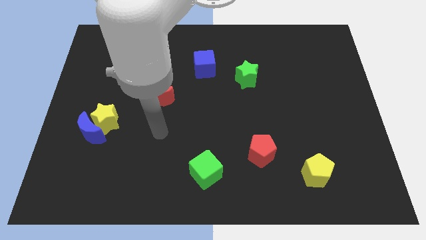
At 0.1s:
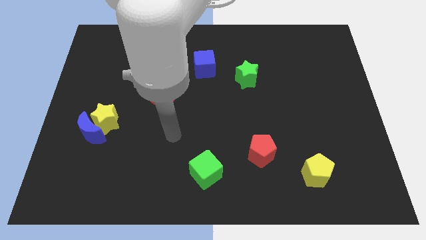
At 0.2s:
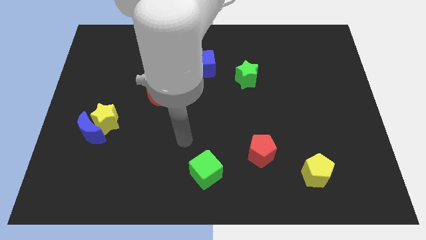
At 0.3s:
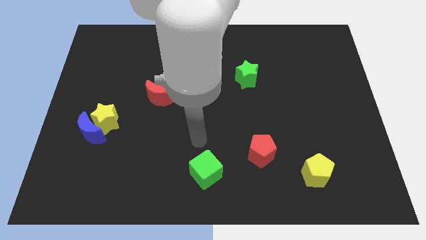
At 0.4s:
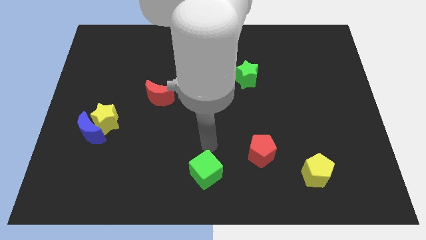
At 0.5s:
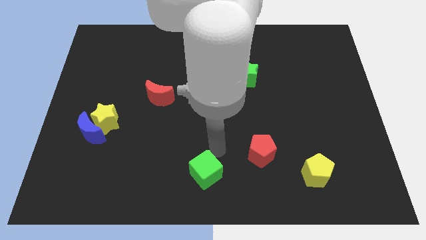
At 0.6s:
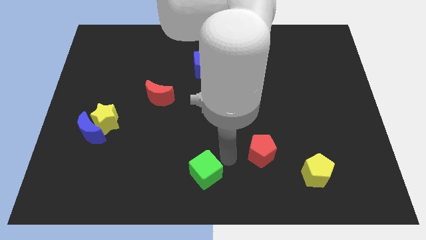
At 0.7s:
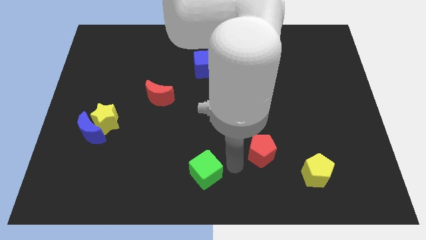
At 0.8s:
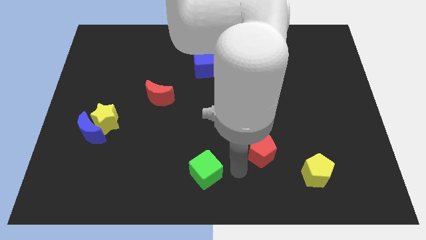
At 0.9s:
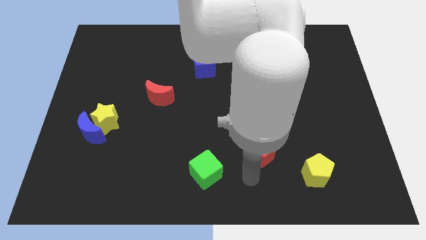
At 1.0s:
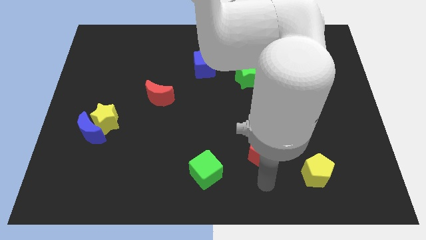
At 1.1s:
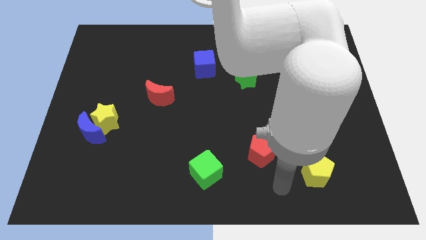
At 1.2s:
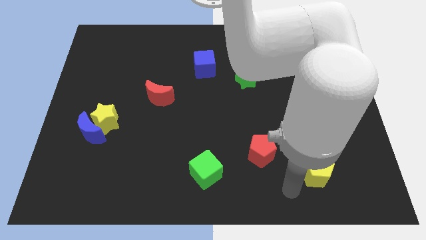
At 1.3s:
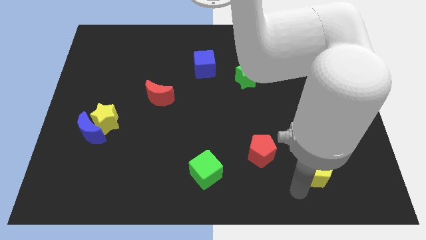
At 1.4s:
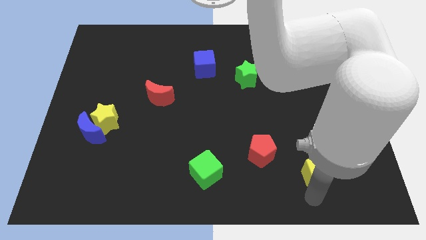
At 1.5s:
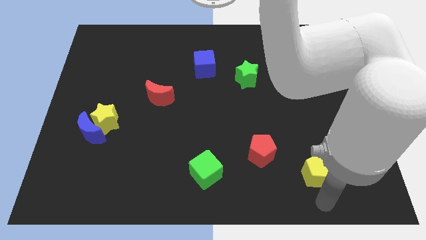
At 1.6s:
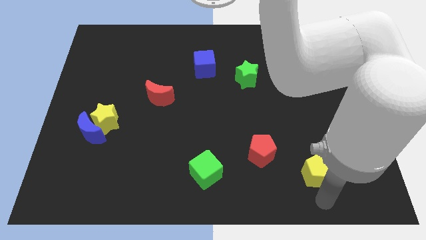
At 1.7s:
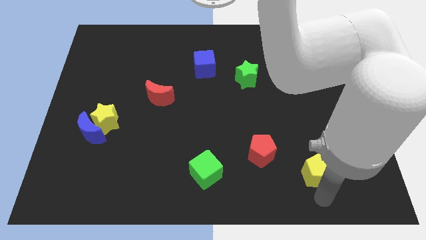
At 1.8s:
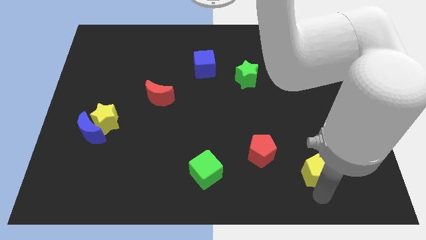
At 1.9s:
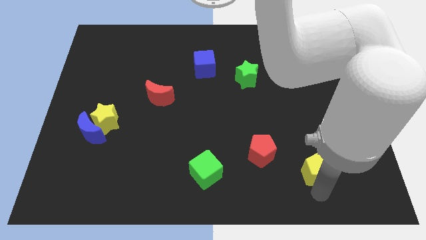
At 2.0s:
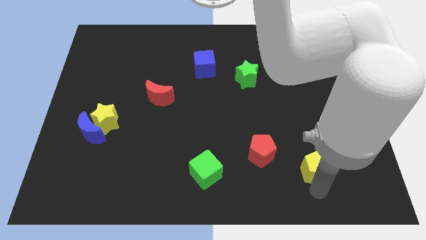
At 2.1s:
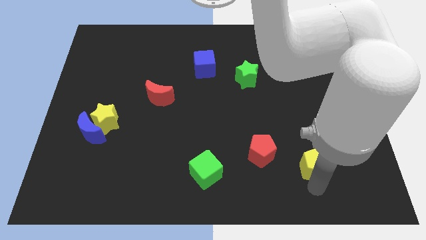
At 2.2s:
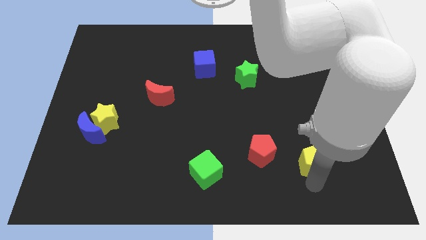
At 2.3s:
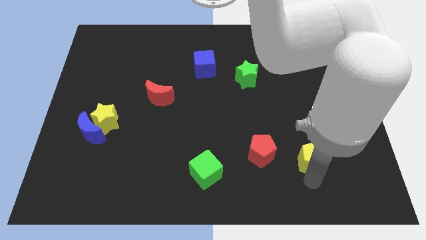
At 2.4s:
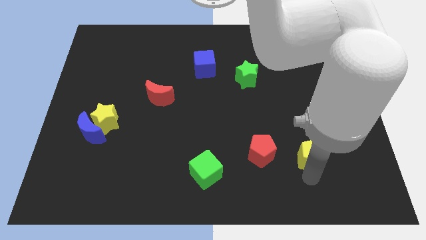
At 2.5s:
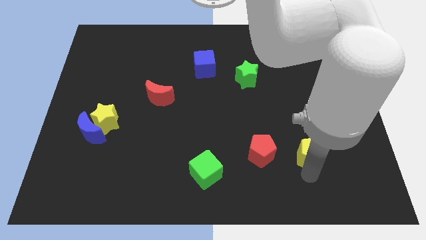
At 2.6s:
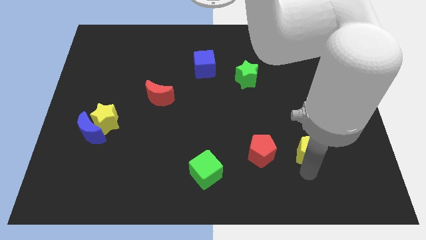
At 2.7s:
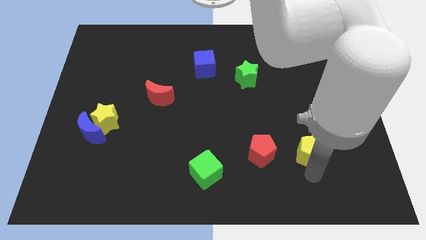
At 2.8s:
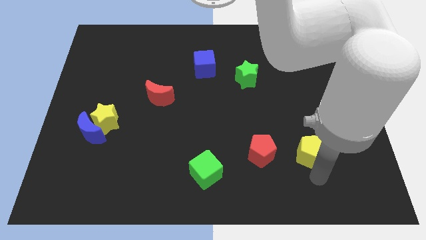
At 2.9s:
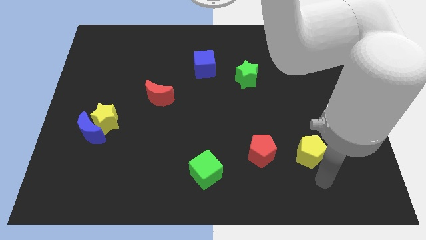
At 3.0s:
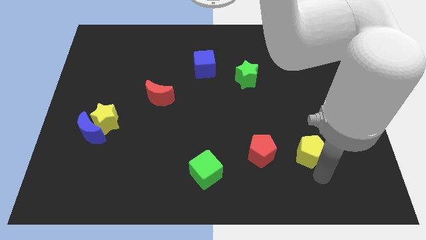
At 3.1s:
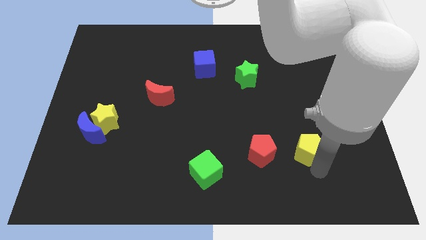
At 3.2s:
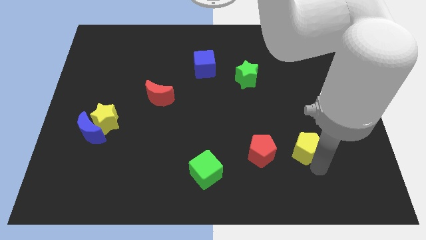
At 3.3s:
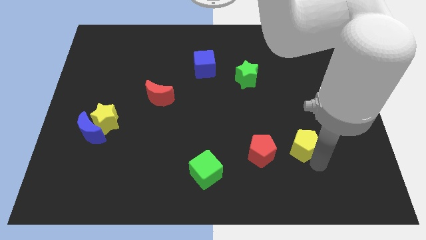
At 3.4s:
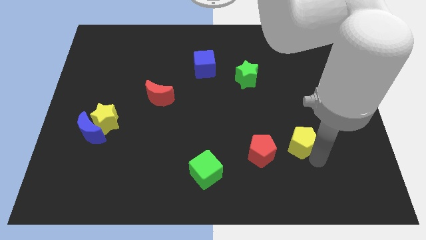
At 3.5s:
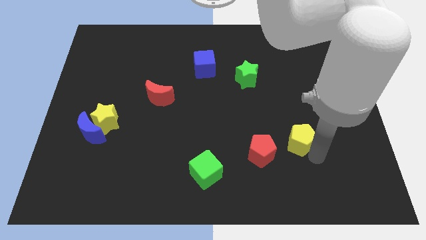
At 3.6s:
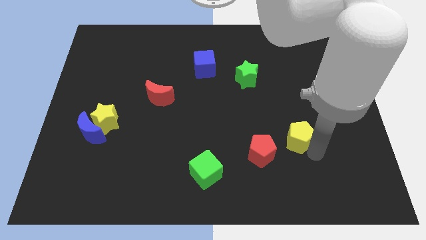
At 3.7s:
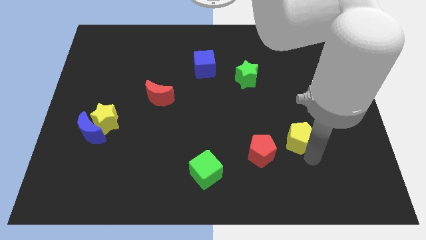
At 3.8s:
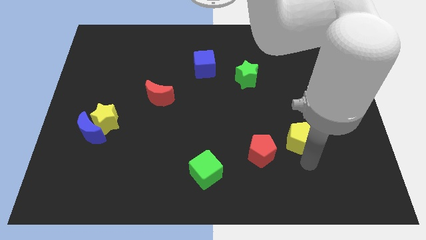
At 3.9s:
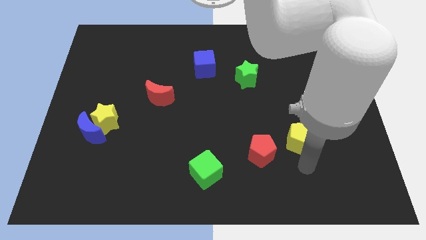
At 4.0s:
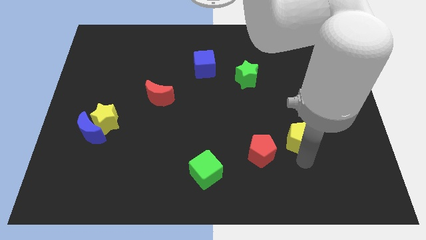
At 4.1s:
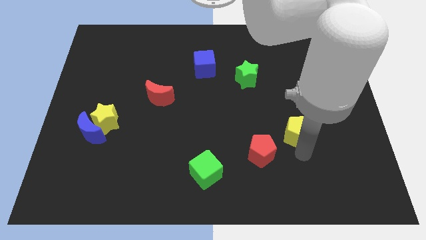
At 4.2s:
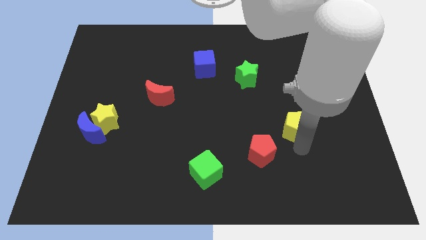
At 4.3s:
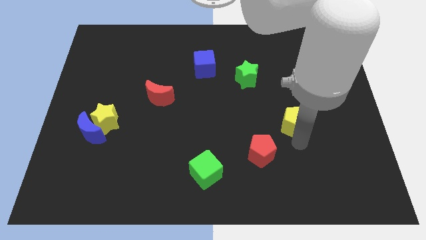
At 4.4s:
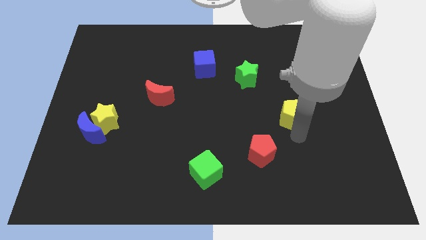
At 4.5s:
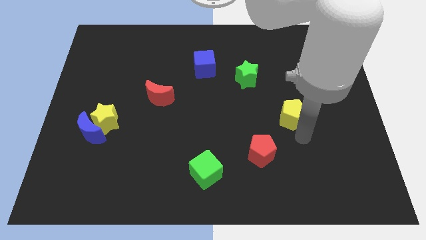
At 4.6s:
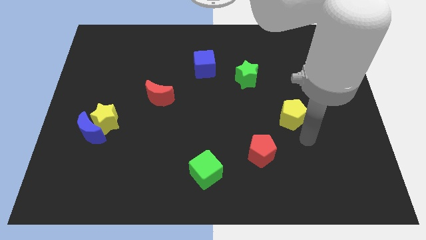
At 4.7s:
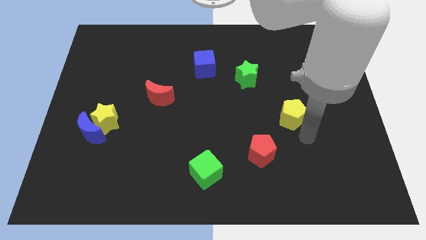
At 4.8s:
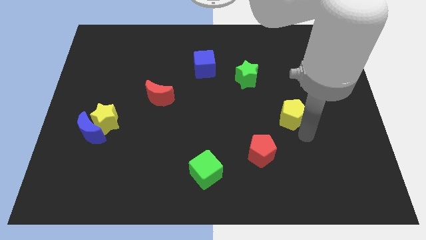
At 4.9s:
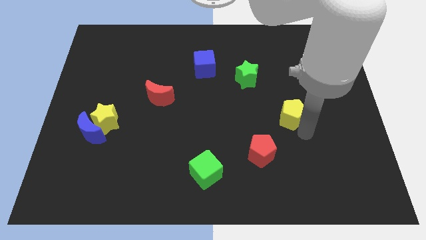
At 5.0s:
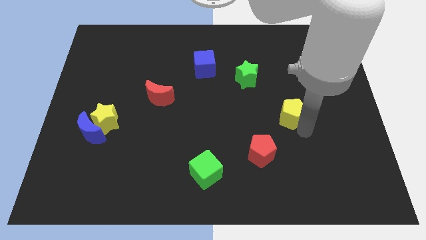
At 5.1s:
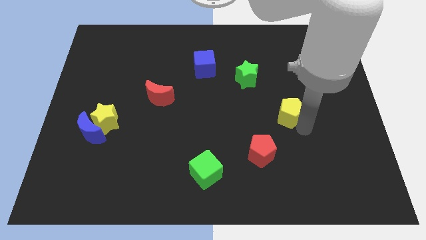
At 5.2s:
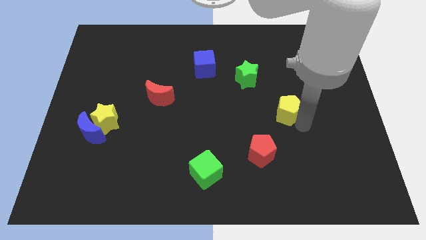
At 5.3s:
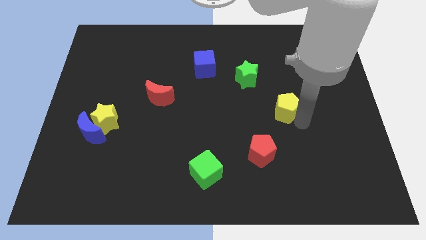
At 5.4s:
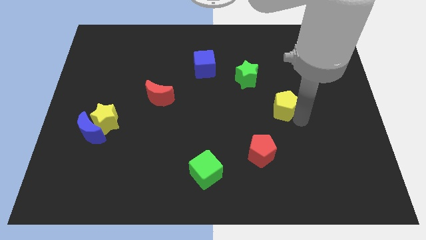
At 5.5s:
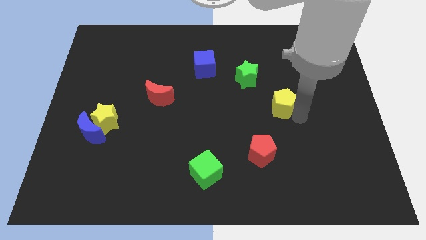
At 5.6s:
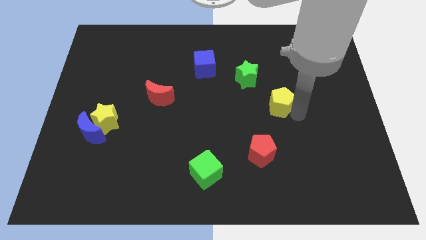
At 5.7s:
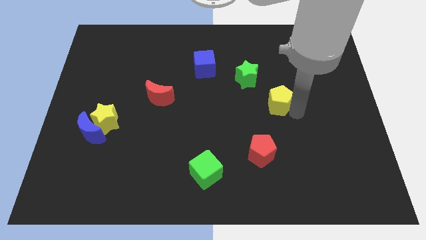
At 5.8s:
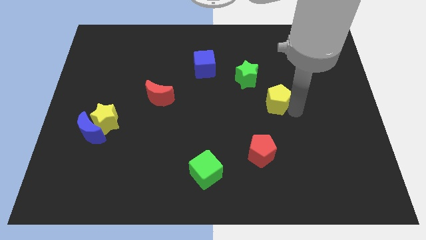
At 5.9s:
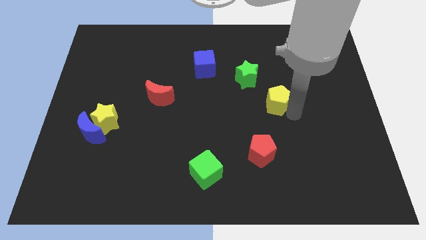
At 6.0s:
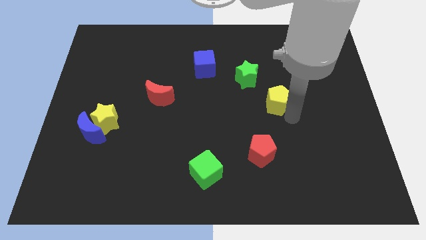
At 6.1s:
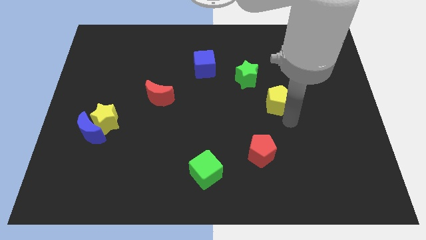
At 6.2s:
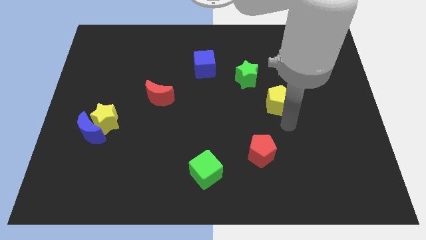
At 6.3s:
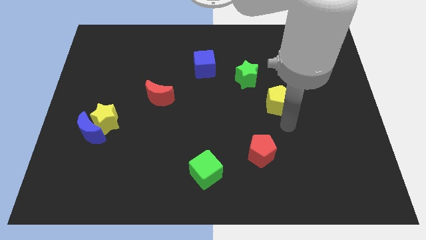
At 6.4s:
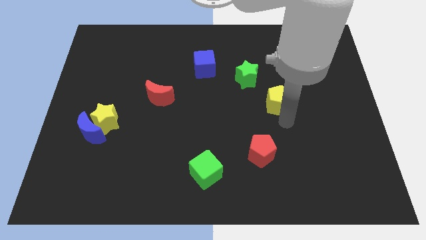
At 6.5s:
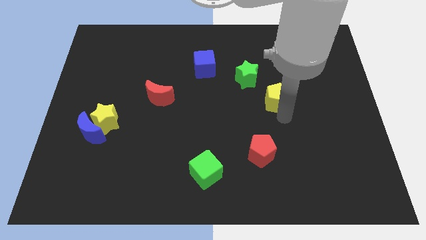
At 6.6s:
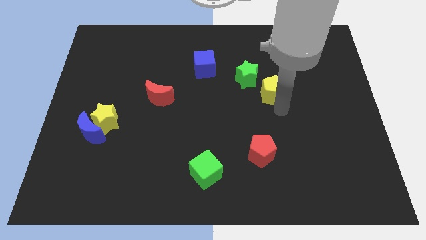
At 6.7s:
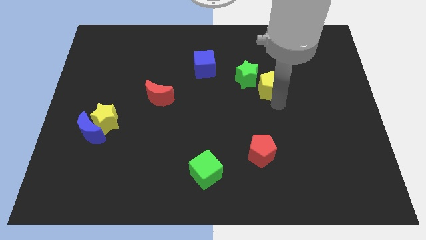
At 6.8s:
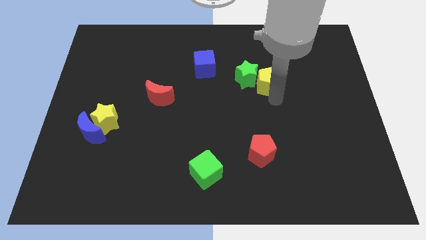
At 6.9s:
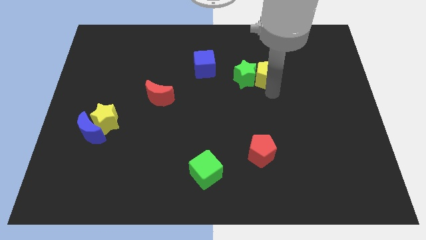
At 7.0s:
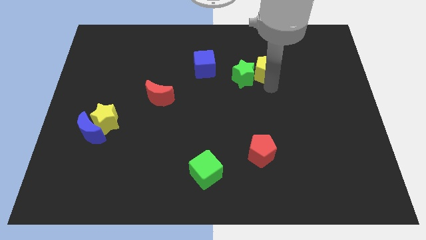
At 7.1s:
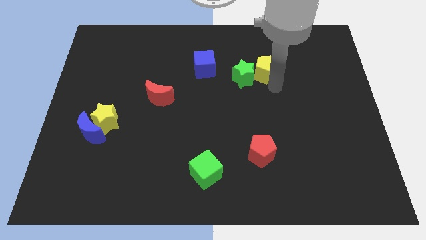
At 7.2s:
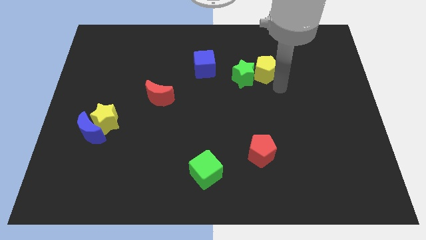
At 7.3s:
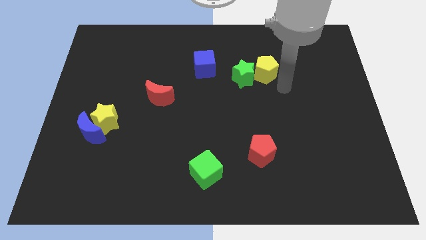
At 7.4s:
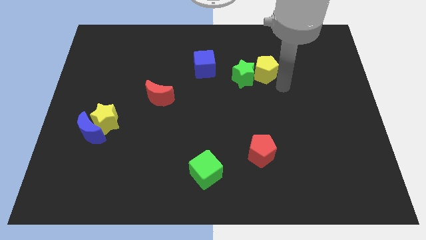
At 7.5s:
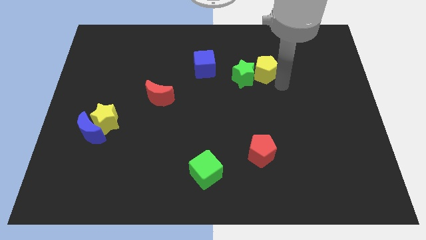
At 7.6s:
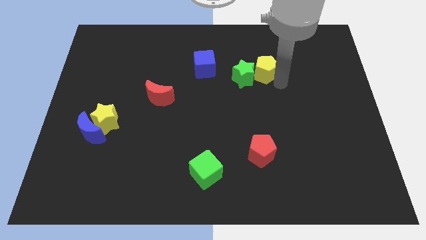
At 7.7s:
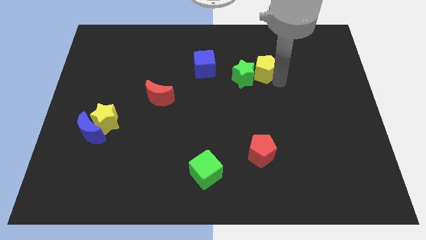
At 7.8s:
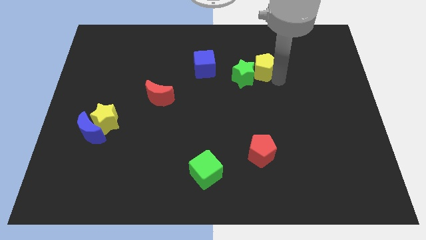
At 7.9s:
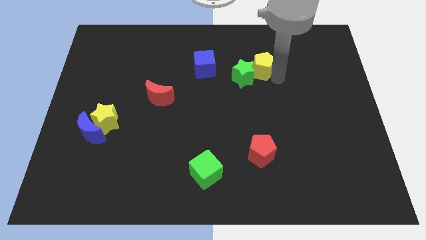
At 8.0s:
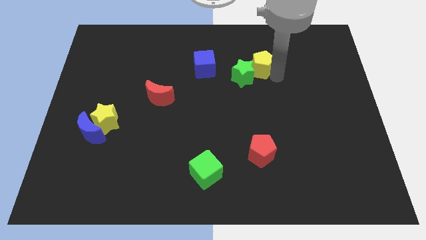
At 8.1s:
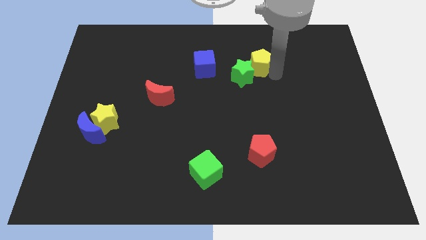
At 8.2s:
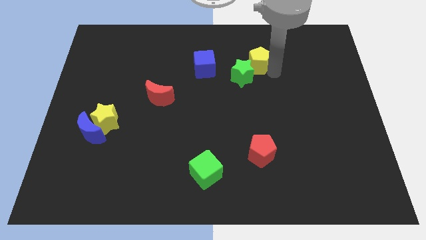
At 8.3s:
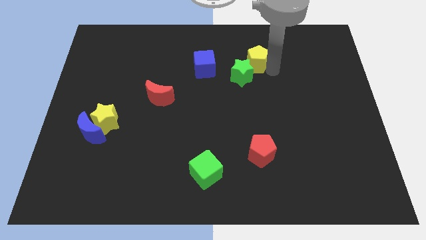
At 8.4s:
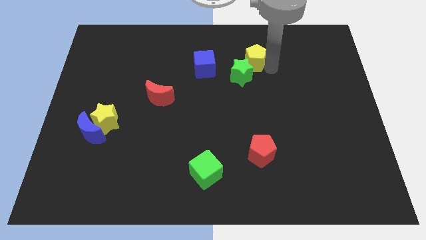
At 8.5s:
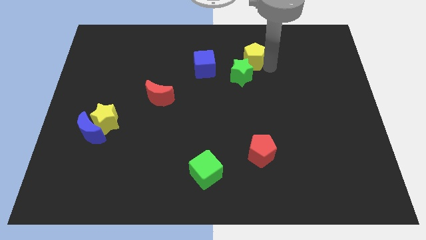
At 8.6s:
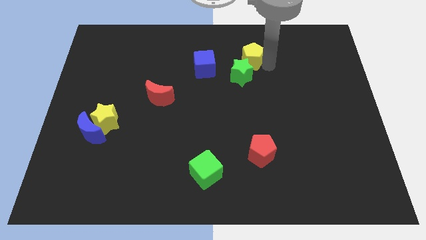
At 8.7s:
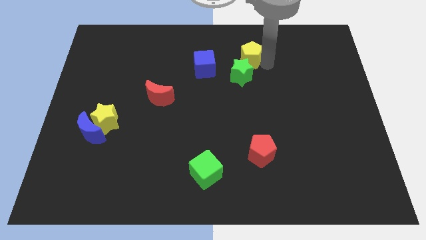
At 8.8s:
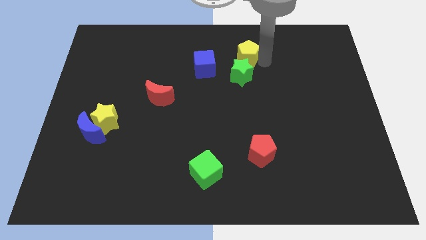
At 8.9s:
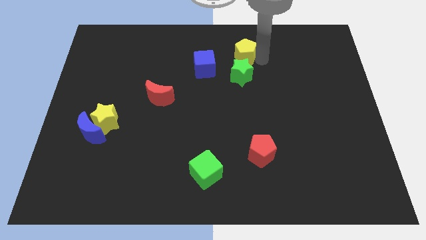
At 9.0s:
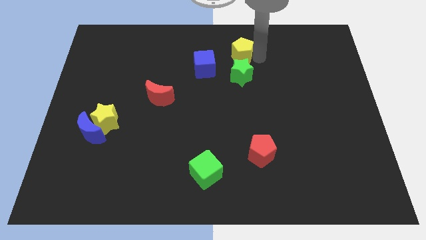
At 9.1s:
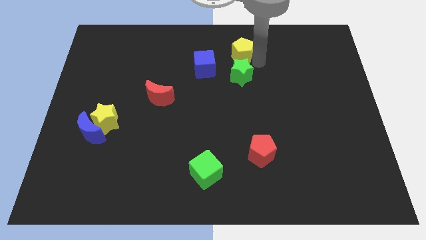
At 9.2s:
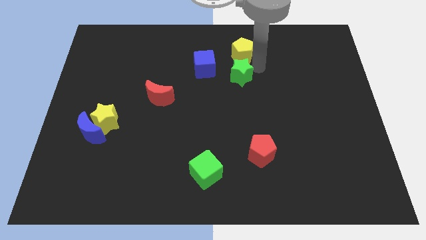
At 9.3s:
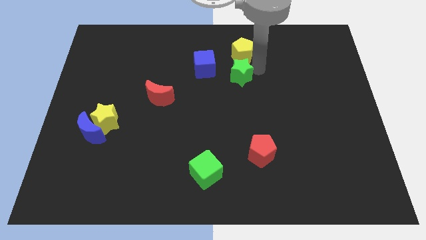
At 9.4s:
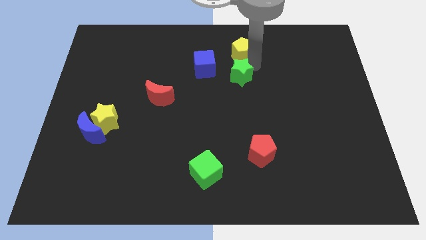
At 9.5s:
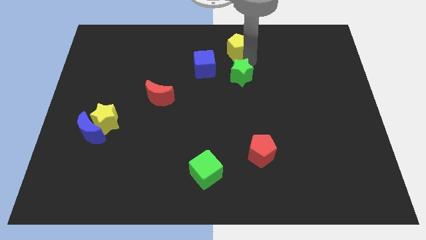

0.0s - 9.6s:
slide the yellow pentagon to the top side
